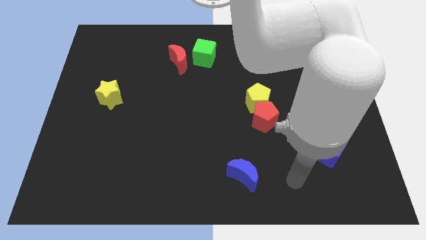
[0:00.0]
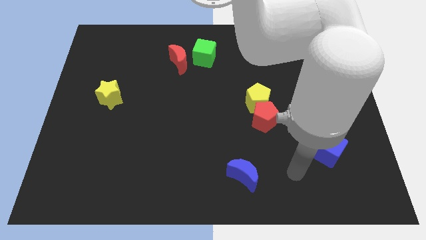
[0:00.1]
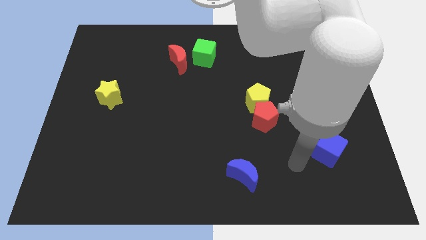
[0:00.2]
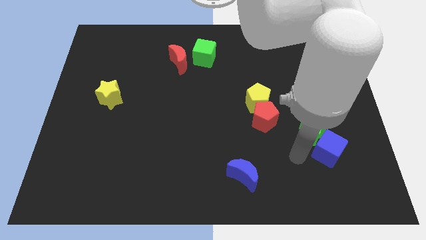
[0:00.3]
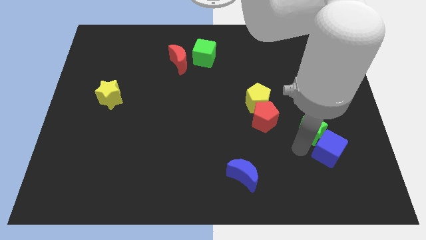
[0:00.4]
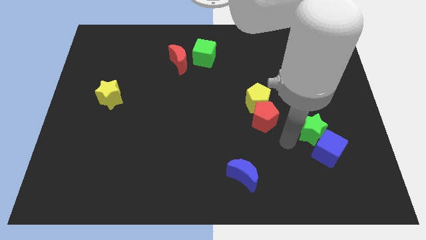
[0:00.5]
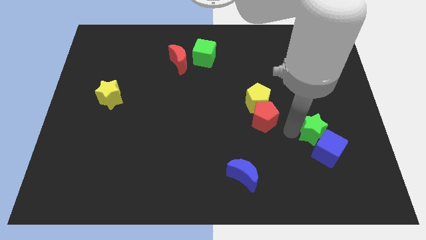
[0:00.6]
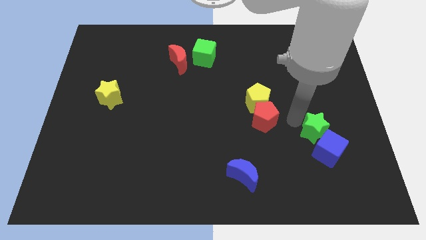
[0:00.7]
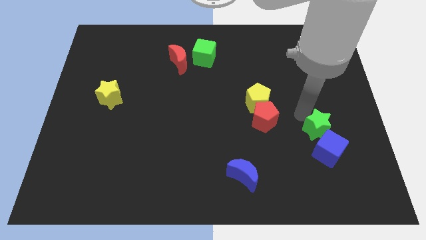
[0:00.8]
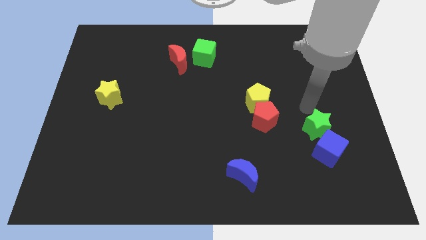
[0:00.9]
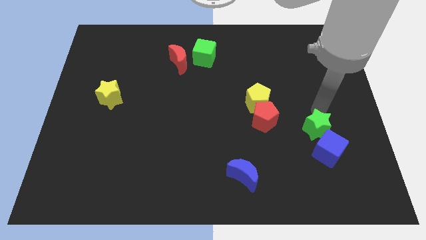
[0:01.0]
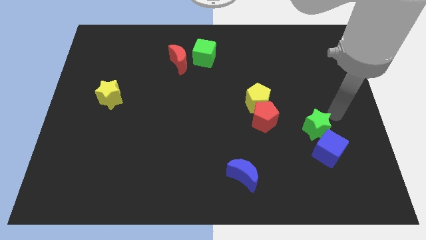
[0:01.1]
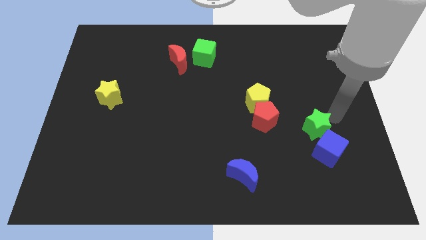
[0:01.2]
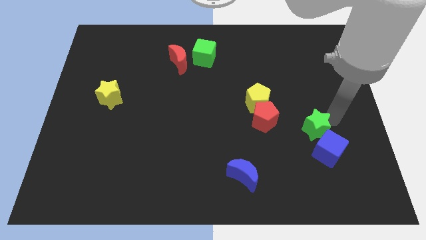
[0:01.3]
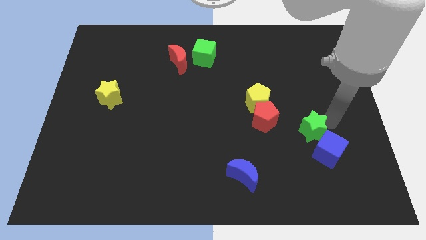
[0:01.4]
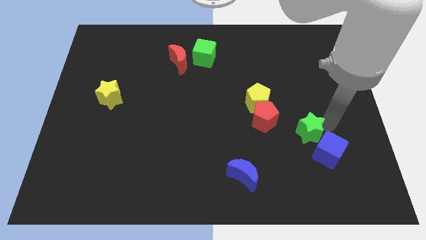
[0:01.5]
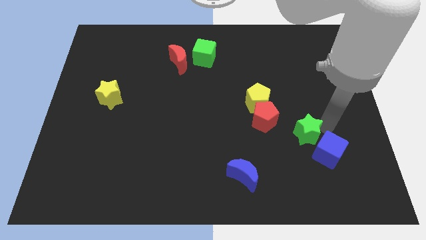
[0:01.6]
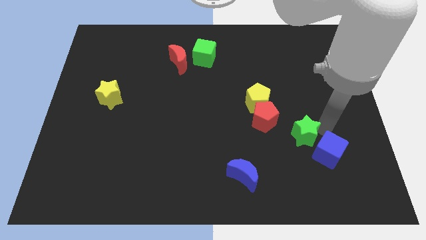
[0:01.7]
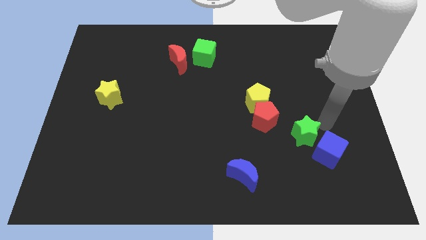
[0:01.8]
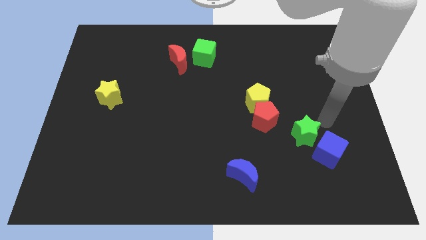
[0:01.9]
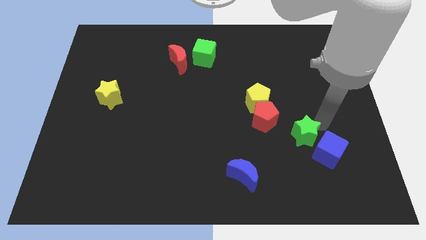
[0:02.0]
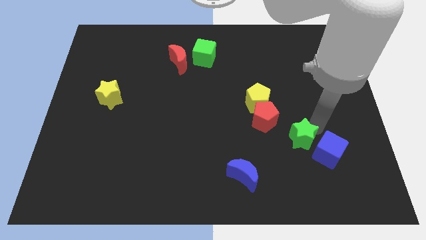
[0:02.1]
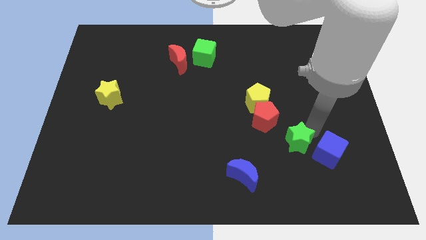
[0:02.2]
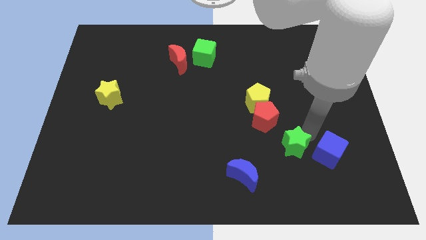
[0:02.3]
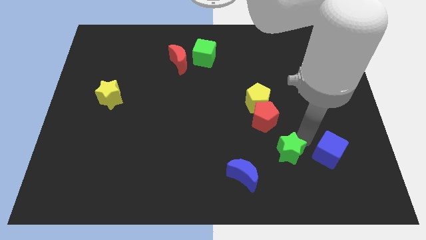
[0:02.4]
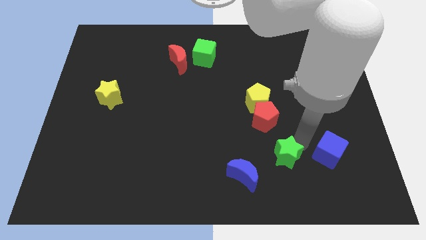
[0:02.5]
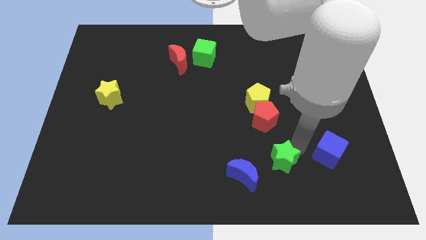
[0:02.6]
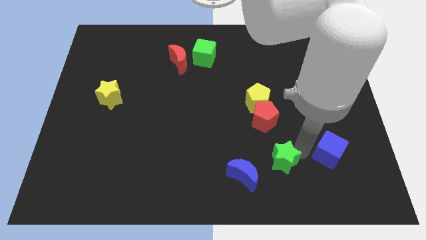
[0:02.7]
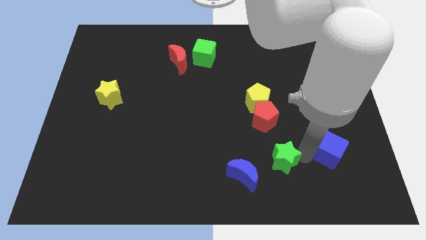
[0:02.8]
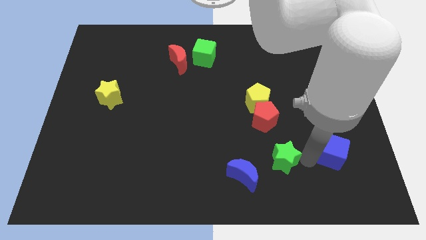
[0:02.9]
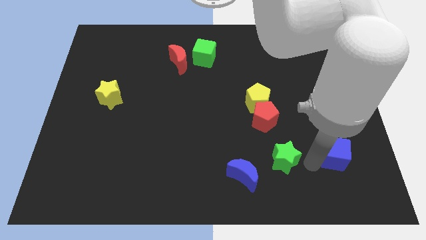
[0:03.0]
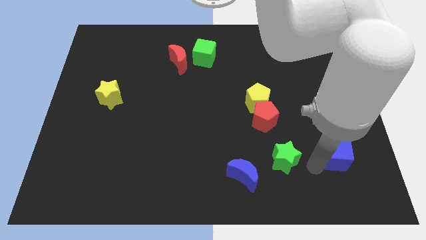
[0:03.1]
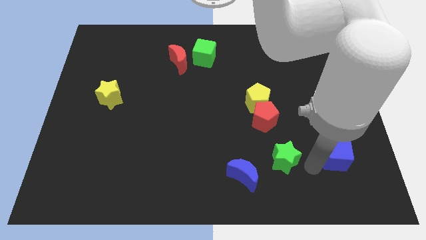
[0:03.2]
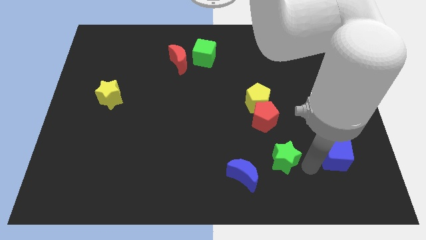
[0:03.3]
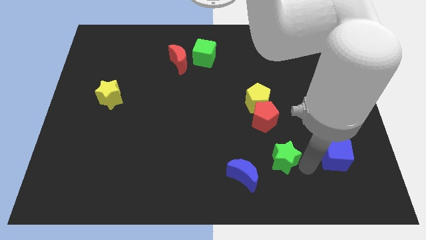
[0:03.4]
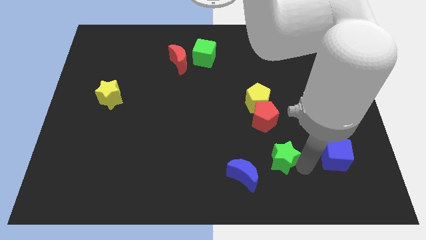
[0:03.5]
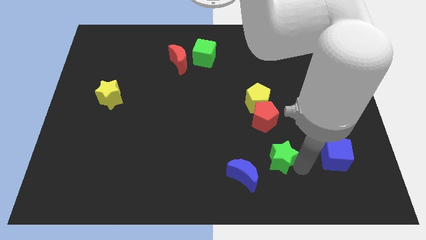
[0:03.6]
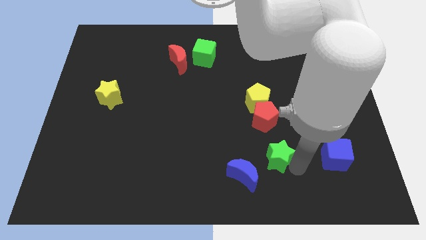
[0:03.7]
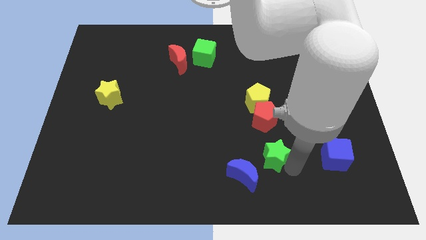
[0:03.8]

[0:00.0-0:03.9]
slide the green star a bit to the left

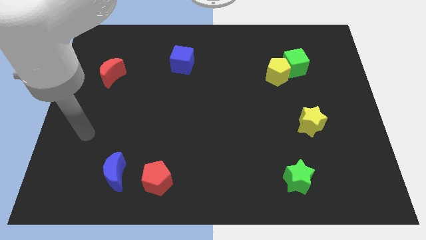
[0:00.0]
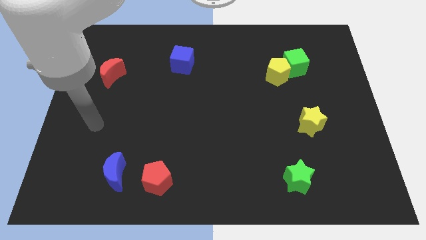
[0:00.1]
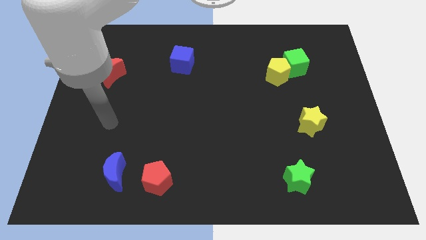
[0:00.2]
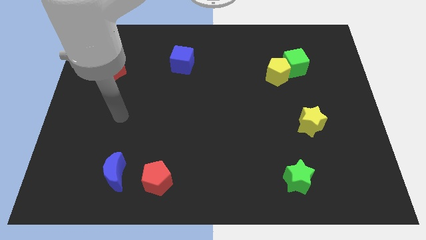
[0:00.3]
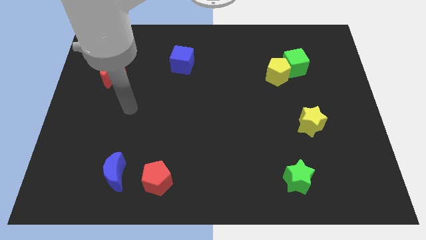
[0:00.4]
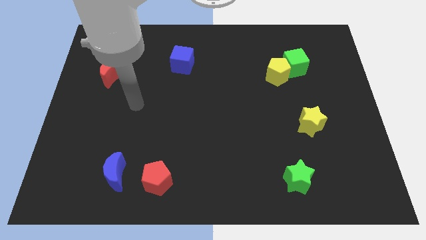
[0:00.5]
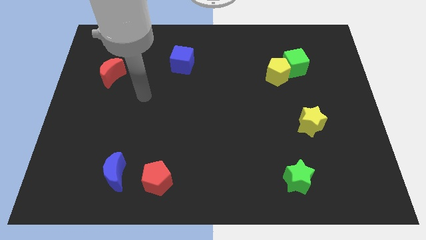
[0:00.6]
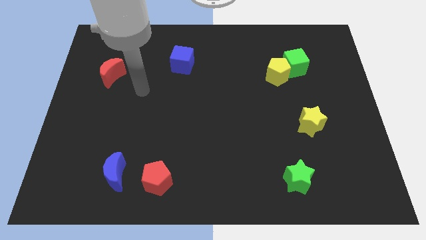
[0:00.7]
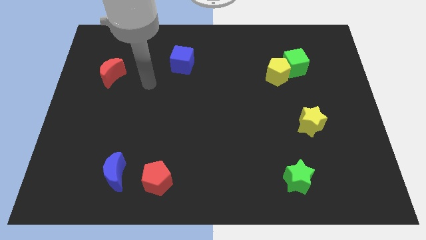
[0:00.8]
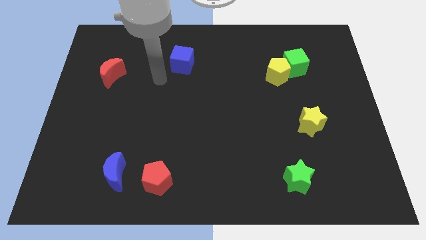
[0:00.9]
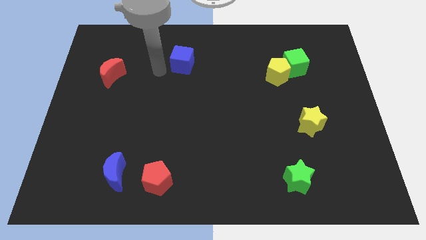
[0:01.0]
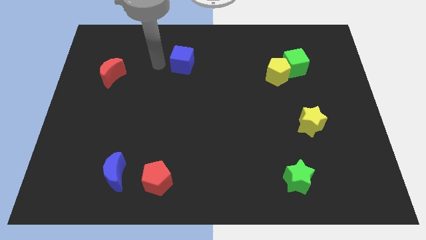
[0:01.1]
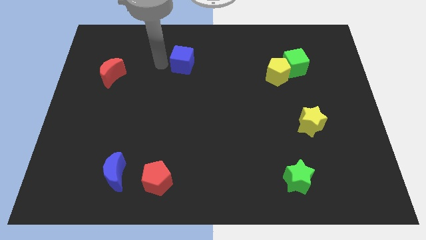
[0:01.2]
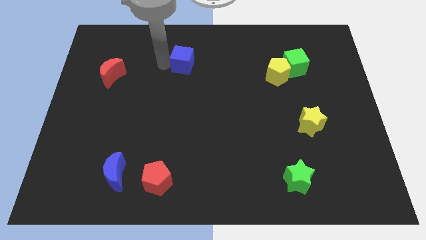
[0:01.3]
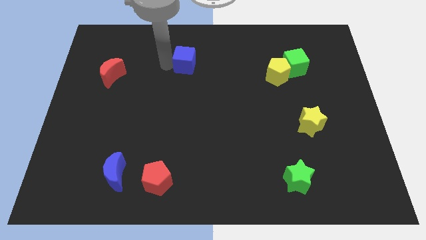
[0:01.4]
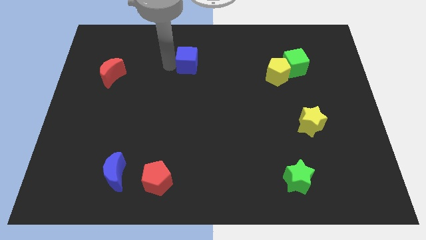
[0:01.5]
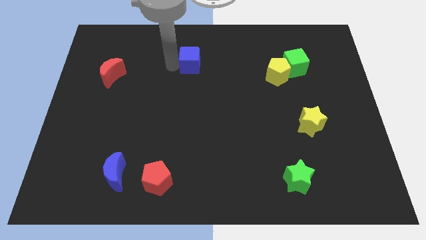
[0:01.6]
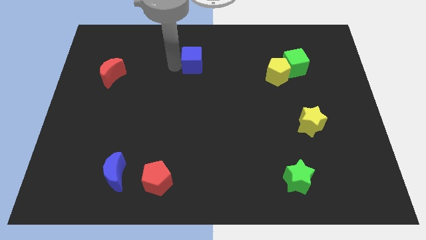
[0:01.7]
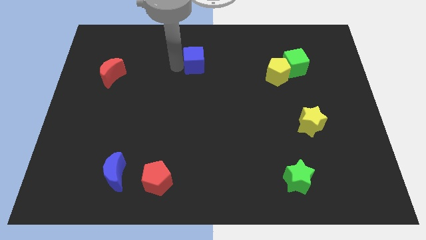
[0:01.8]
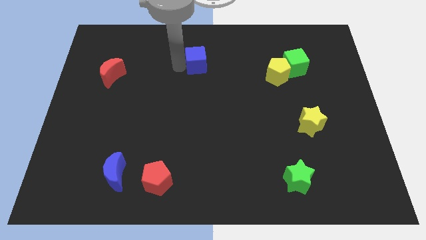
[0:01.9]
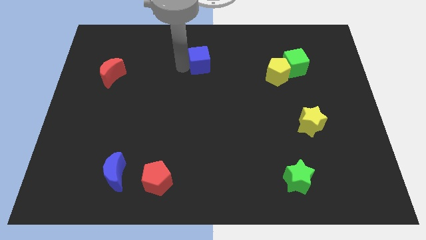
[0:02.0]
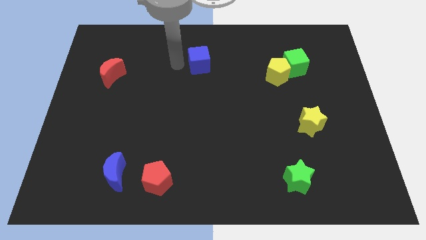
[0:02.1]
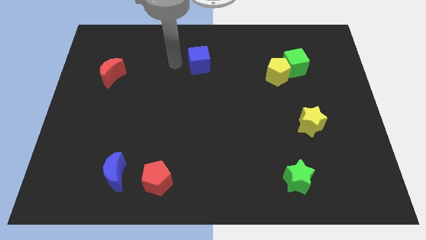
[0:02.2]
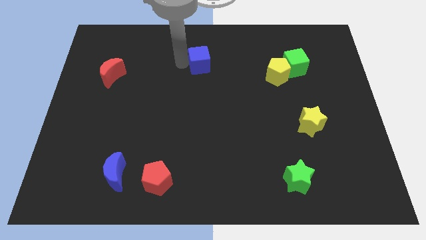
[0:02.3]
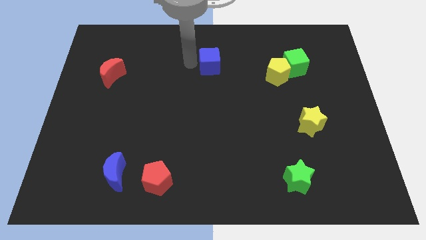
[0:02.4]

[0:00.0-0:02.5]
slightly push the blue cube right

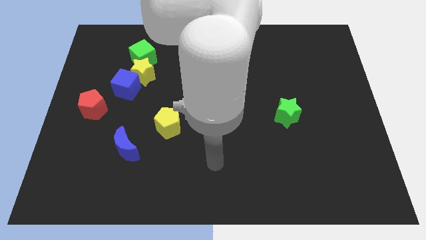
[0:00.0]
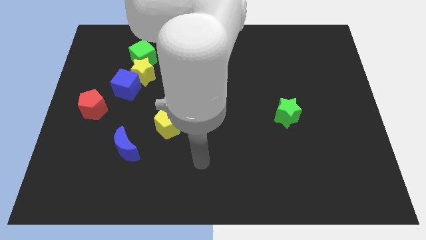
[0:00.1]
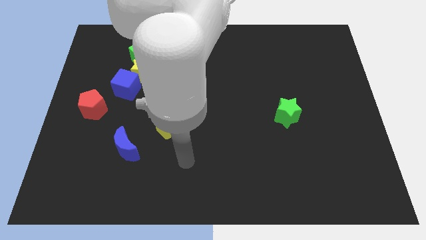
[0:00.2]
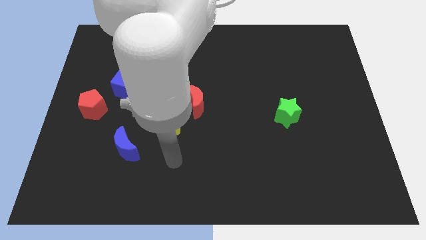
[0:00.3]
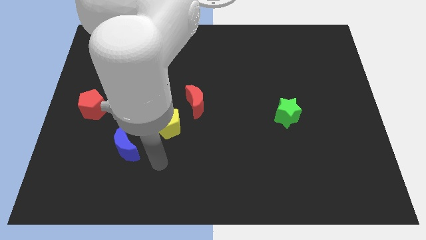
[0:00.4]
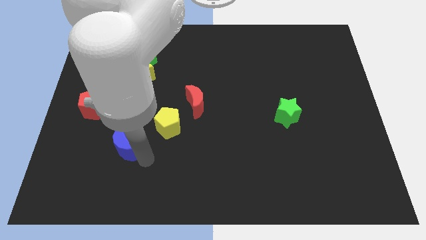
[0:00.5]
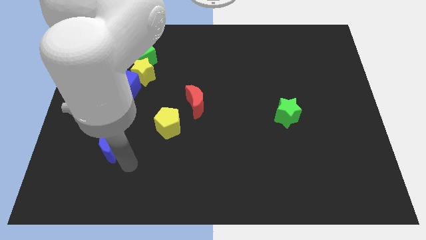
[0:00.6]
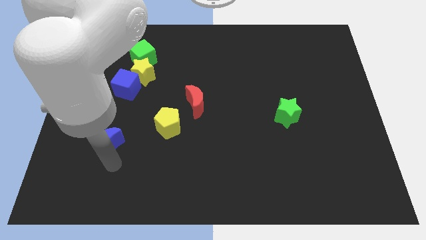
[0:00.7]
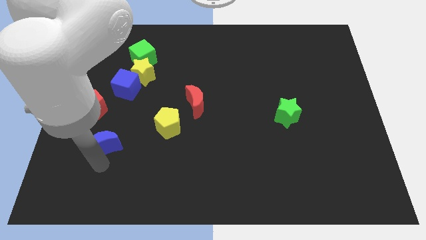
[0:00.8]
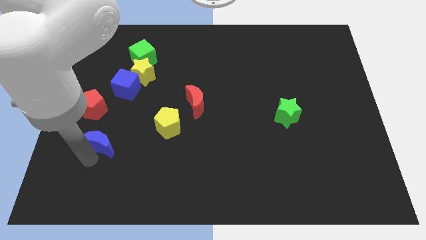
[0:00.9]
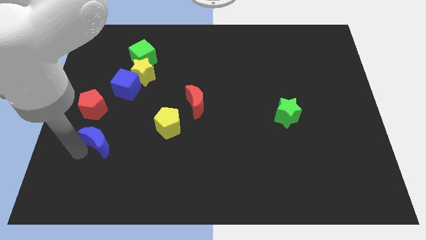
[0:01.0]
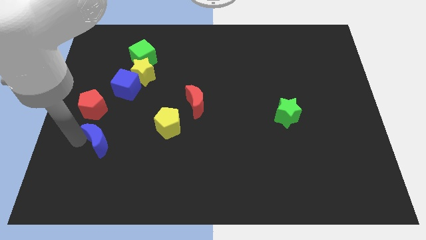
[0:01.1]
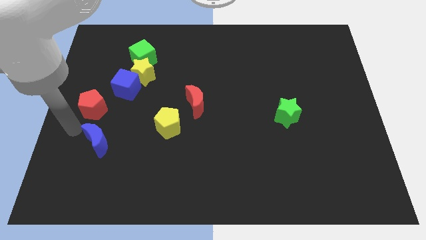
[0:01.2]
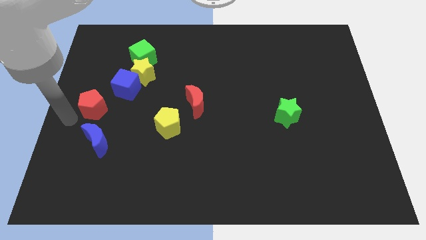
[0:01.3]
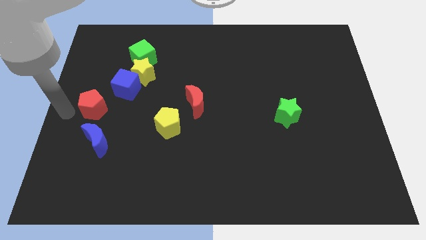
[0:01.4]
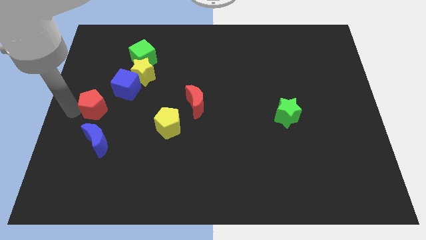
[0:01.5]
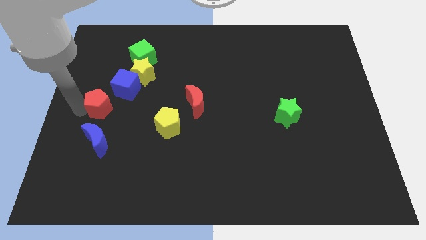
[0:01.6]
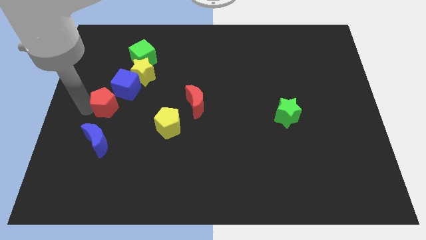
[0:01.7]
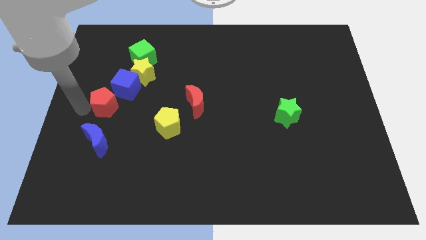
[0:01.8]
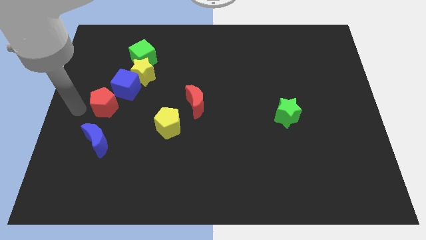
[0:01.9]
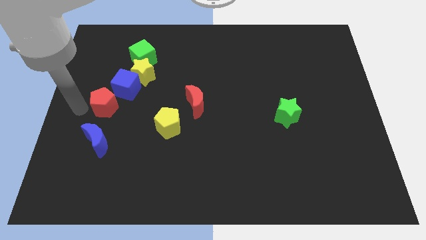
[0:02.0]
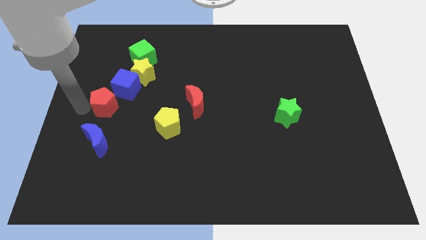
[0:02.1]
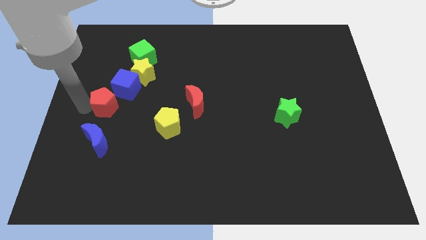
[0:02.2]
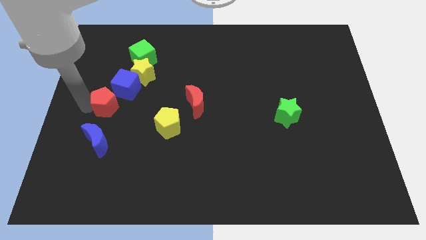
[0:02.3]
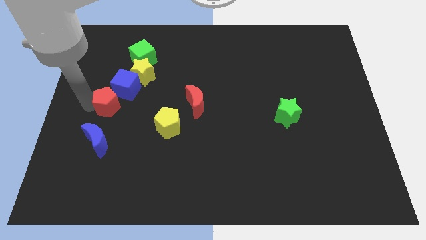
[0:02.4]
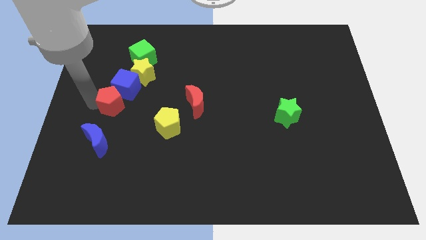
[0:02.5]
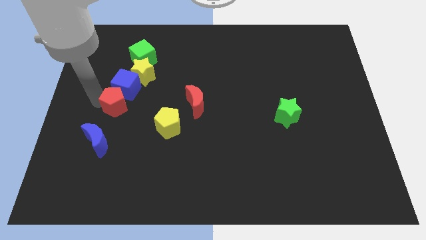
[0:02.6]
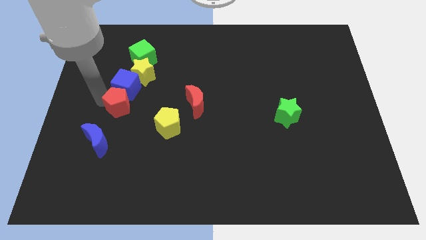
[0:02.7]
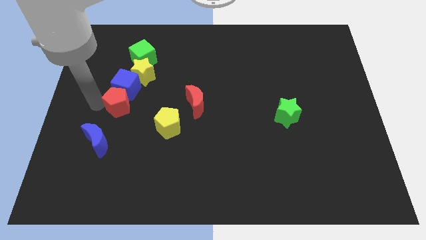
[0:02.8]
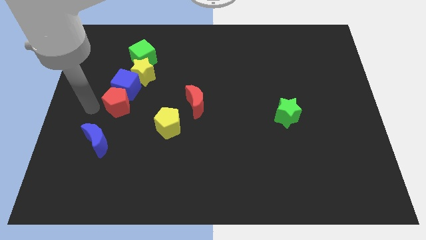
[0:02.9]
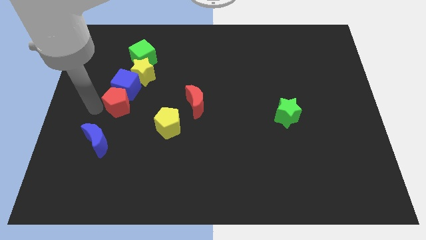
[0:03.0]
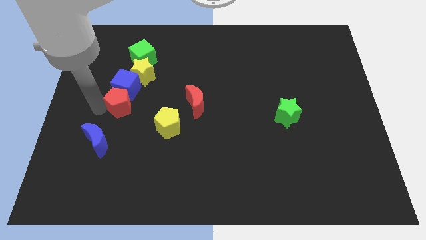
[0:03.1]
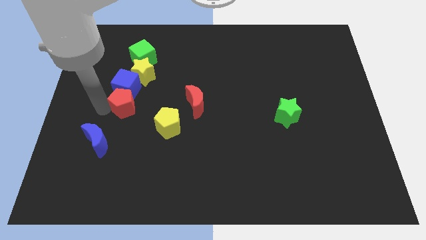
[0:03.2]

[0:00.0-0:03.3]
slightly move the red pentagon to the right
